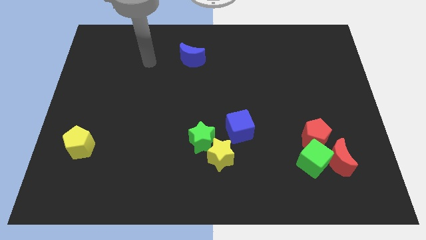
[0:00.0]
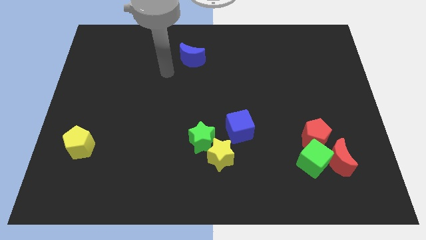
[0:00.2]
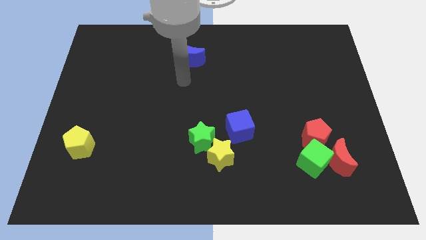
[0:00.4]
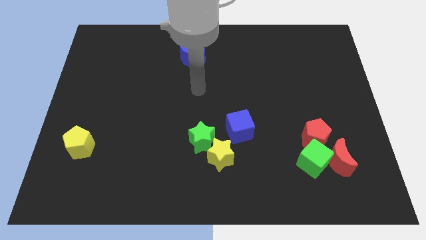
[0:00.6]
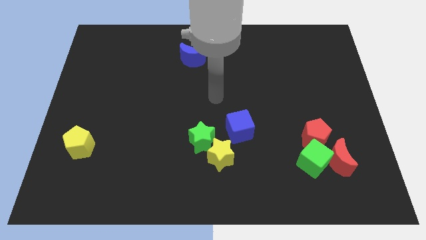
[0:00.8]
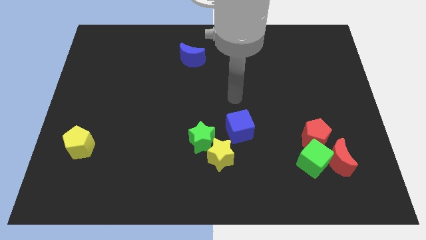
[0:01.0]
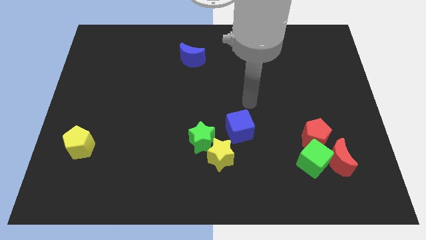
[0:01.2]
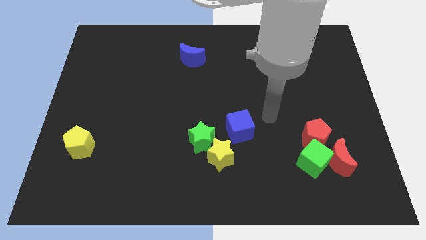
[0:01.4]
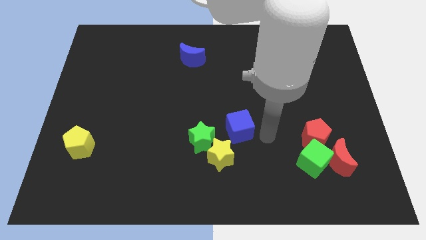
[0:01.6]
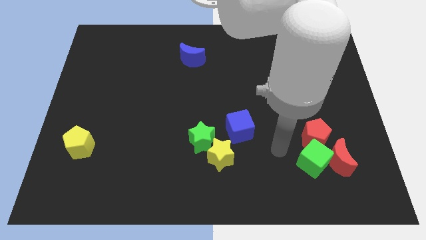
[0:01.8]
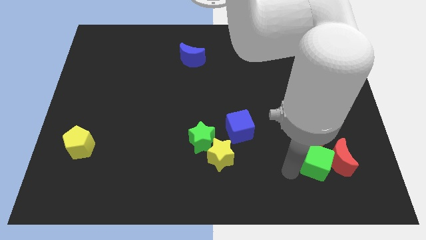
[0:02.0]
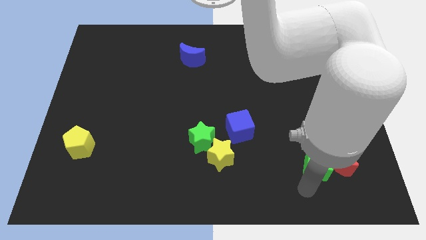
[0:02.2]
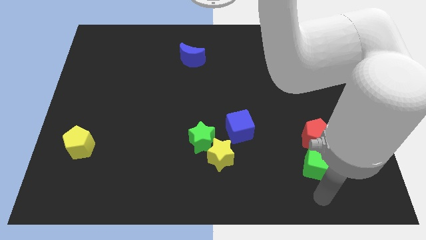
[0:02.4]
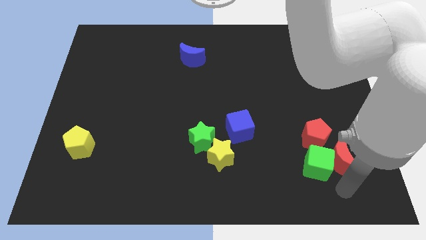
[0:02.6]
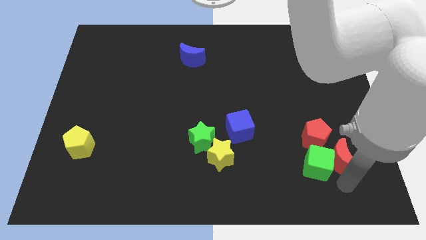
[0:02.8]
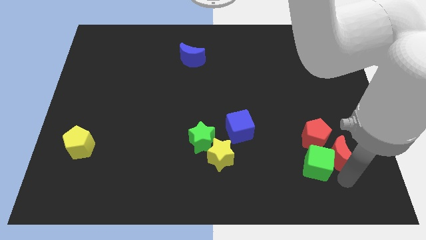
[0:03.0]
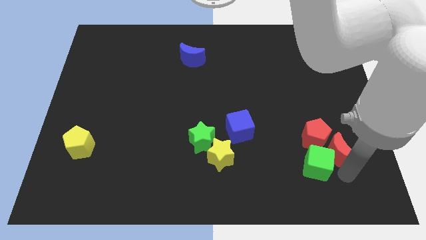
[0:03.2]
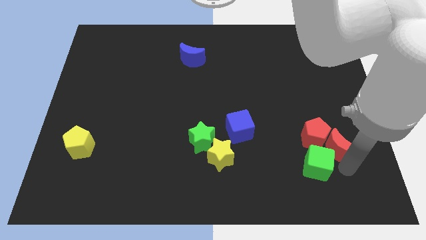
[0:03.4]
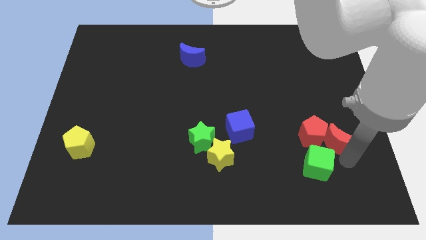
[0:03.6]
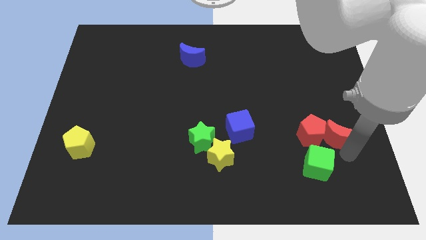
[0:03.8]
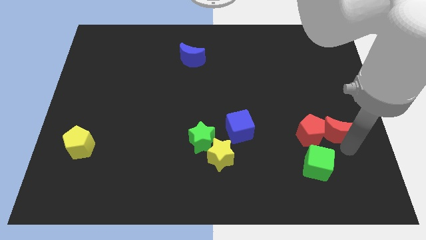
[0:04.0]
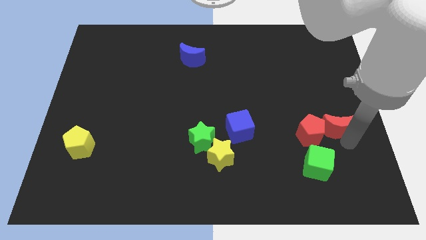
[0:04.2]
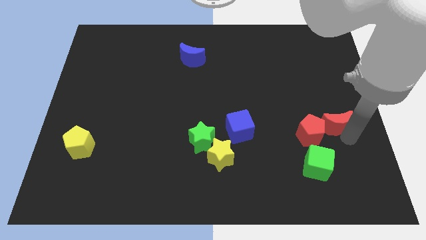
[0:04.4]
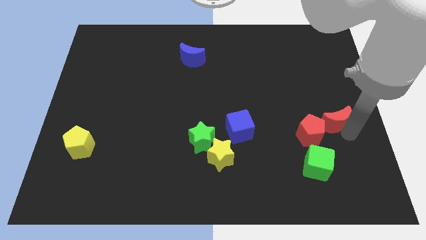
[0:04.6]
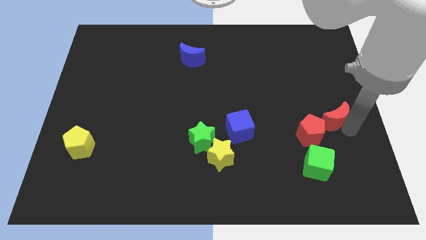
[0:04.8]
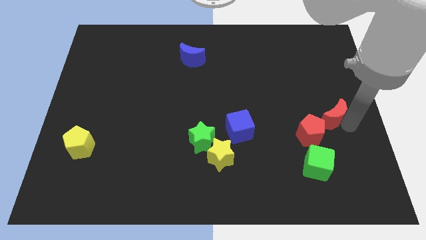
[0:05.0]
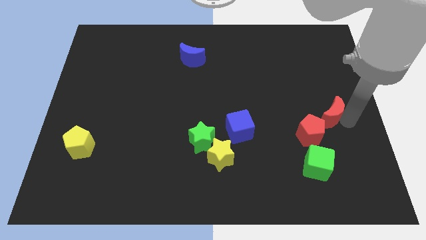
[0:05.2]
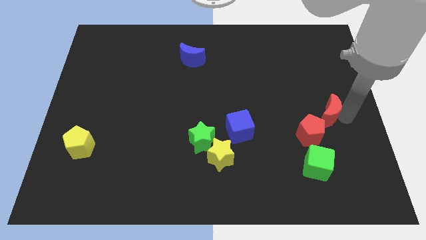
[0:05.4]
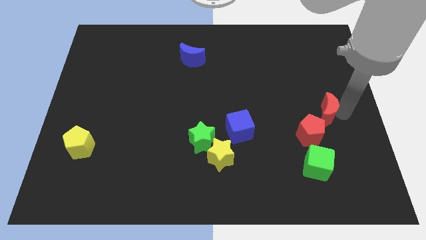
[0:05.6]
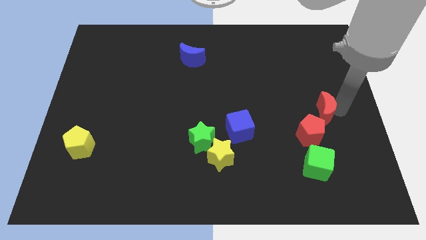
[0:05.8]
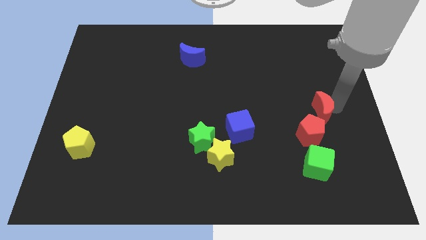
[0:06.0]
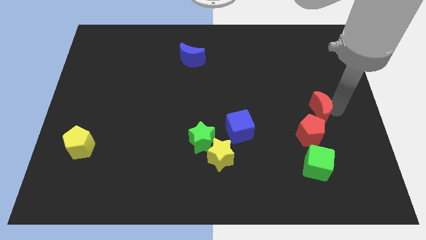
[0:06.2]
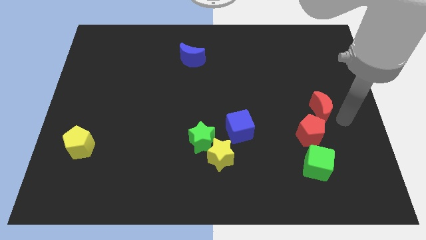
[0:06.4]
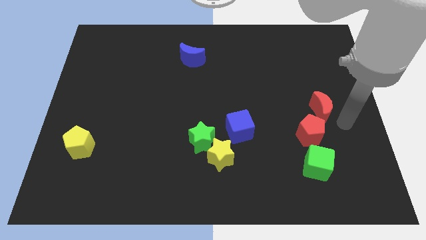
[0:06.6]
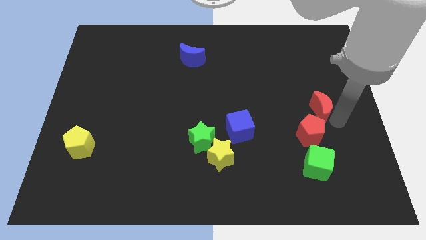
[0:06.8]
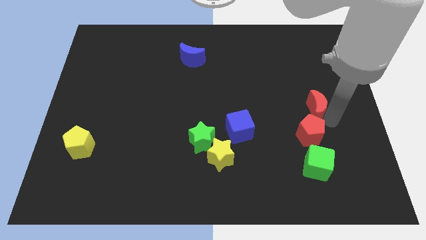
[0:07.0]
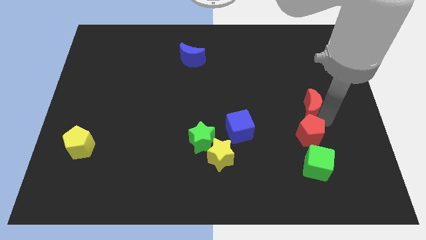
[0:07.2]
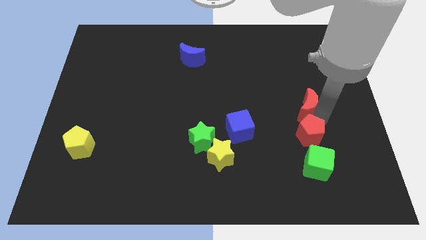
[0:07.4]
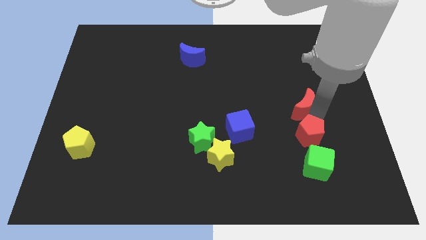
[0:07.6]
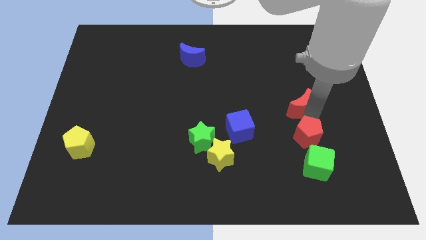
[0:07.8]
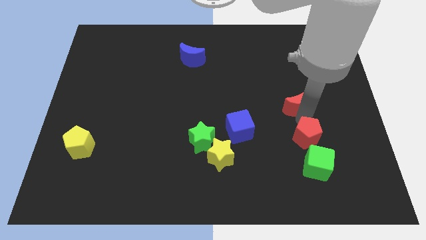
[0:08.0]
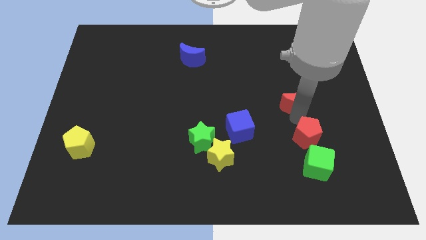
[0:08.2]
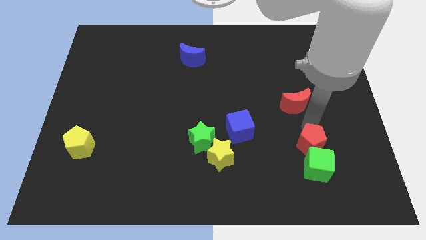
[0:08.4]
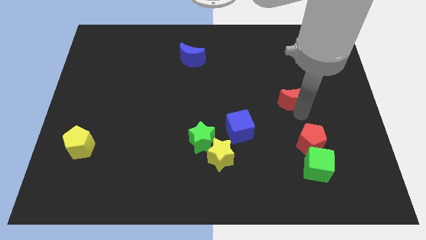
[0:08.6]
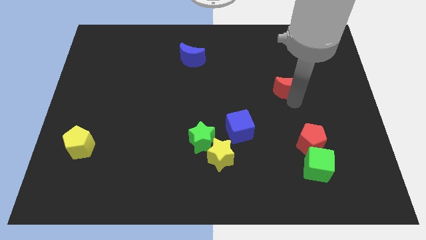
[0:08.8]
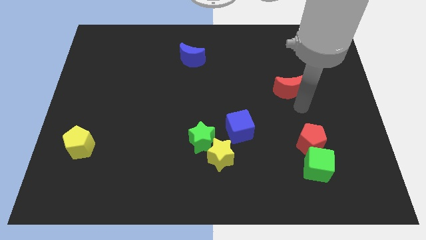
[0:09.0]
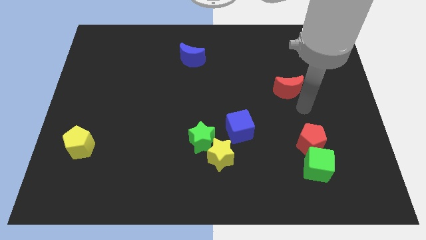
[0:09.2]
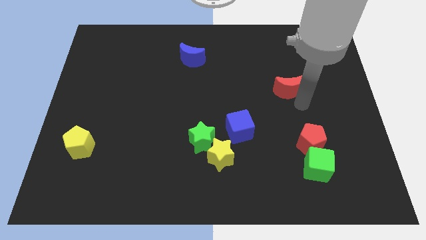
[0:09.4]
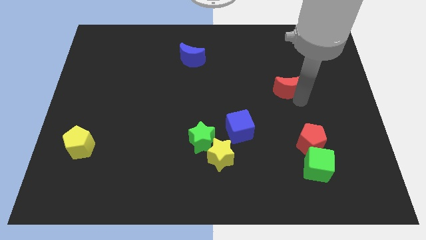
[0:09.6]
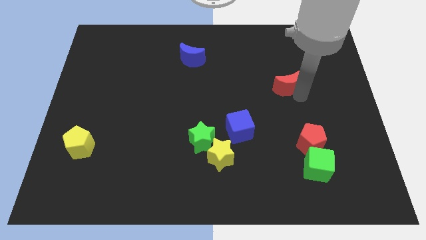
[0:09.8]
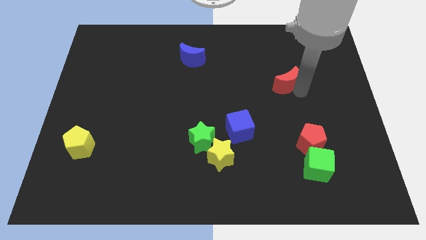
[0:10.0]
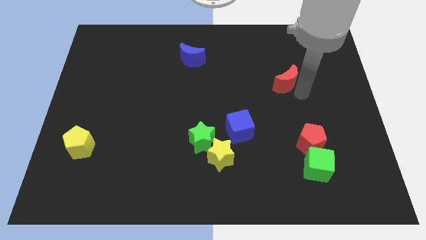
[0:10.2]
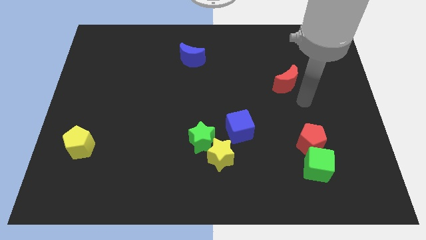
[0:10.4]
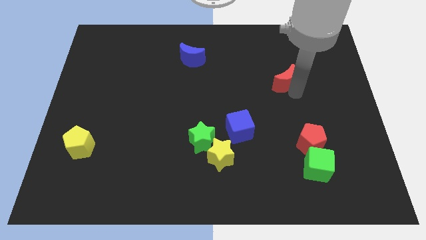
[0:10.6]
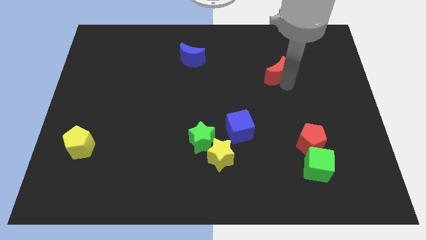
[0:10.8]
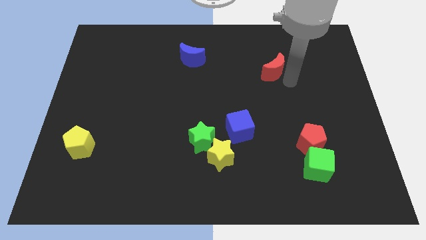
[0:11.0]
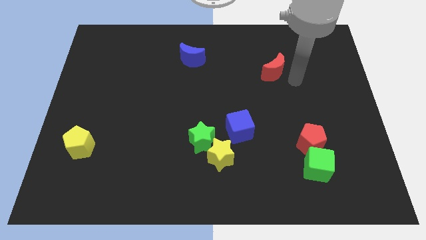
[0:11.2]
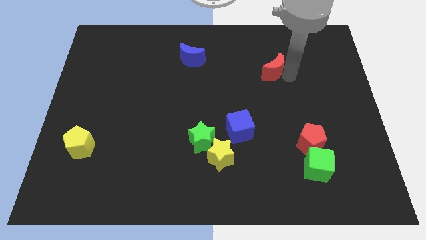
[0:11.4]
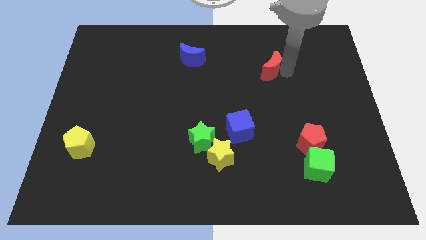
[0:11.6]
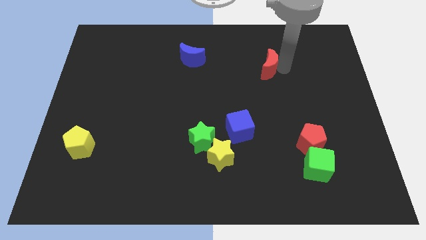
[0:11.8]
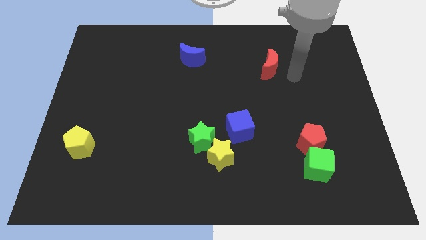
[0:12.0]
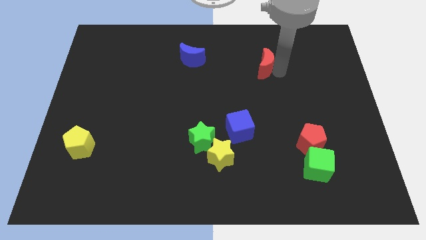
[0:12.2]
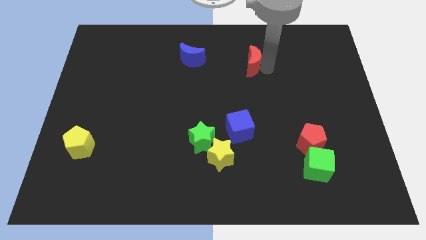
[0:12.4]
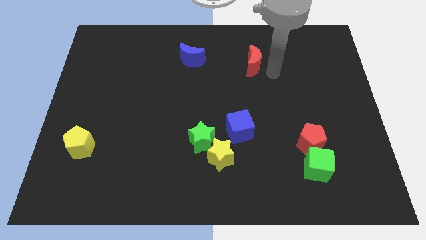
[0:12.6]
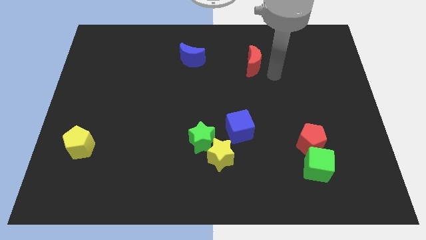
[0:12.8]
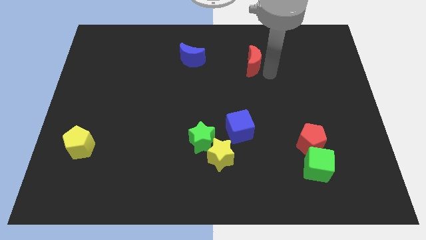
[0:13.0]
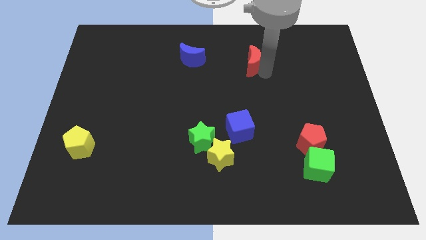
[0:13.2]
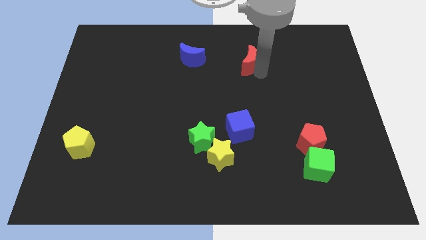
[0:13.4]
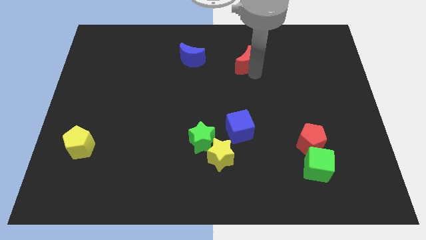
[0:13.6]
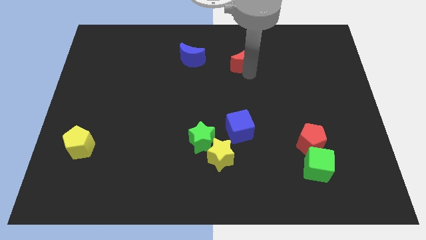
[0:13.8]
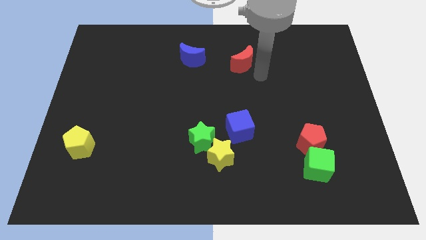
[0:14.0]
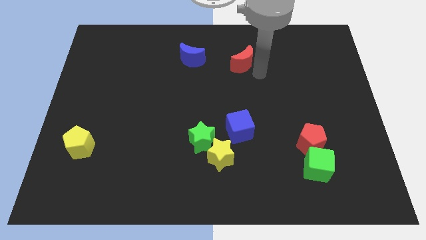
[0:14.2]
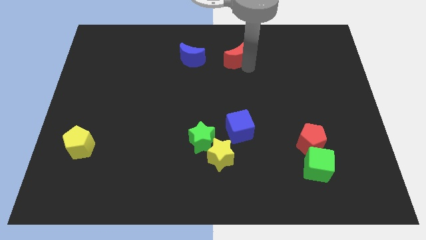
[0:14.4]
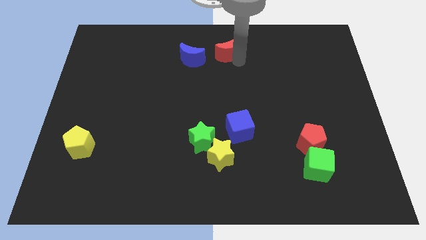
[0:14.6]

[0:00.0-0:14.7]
push the red moon to the towards your base
